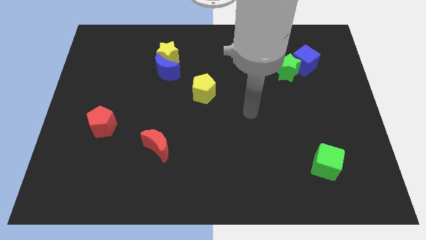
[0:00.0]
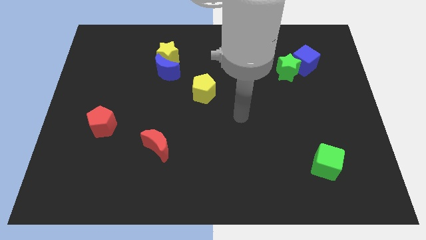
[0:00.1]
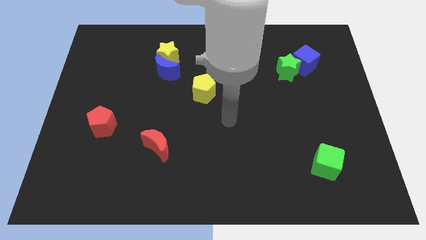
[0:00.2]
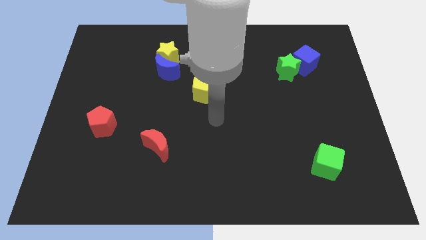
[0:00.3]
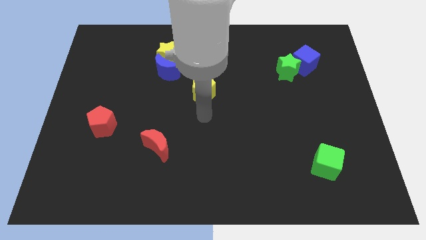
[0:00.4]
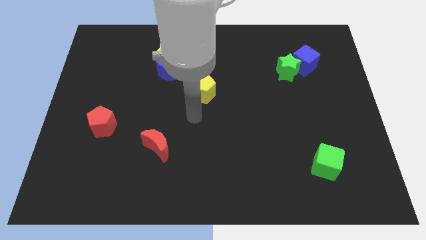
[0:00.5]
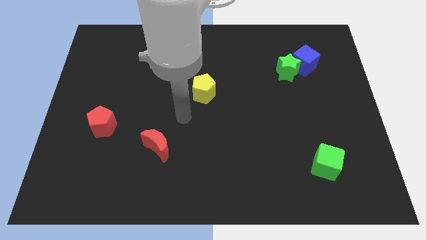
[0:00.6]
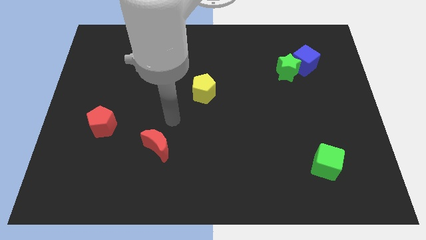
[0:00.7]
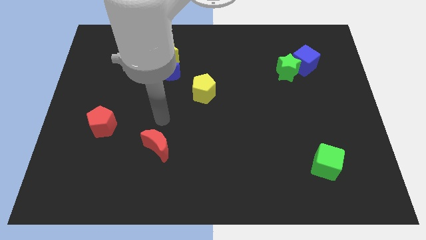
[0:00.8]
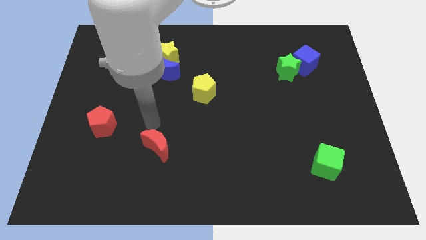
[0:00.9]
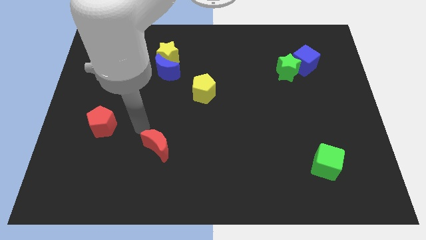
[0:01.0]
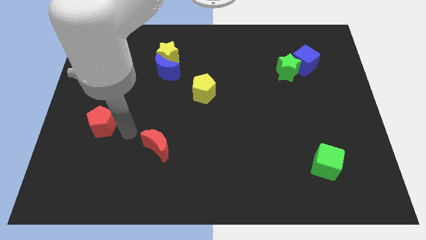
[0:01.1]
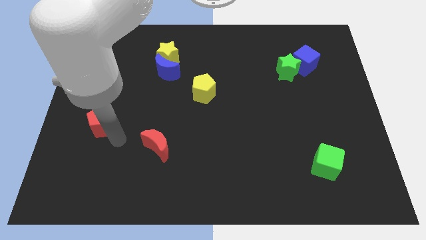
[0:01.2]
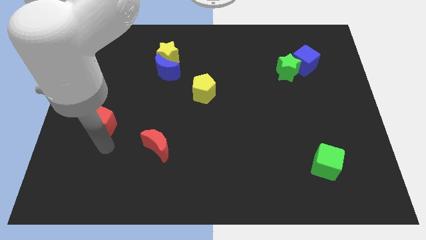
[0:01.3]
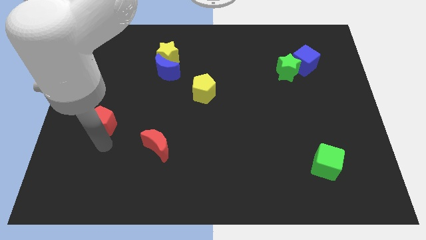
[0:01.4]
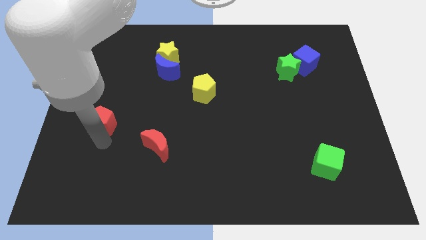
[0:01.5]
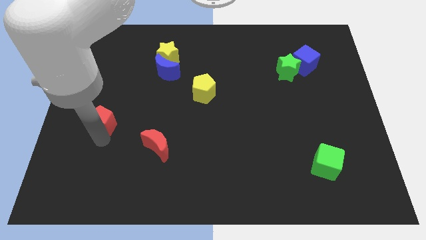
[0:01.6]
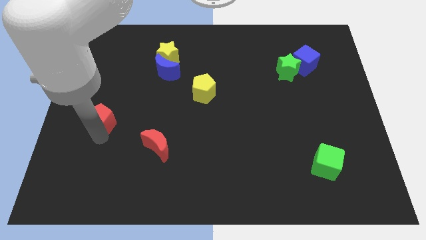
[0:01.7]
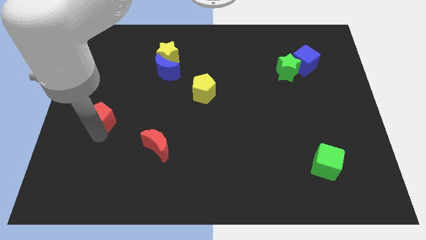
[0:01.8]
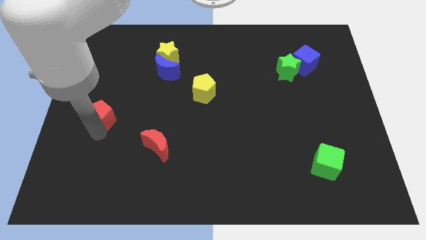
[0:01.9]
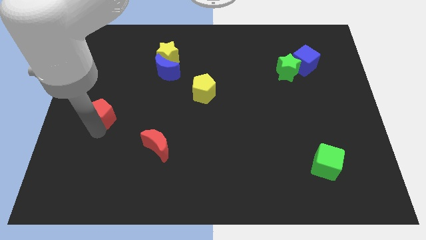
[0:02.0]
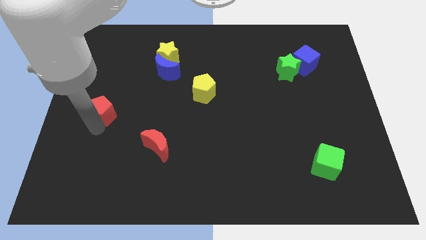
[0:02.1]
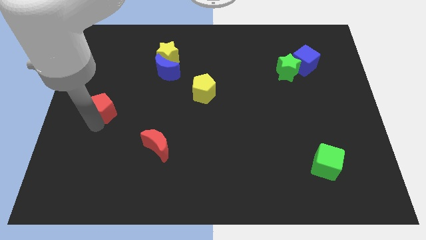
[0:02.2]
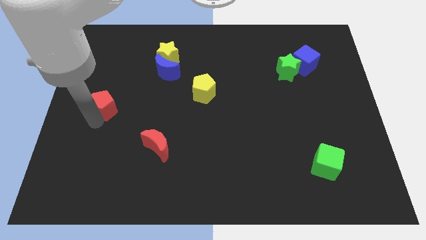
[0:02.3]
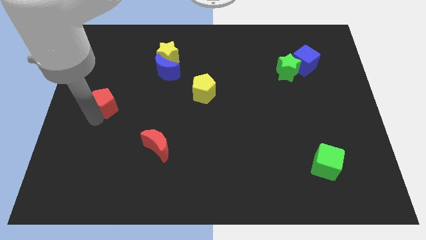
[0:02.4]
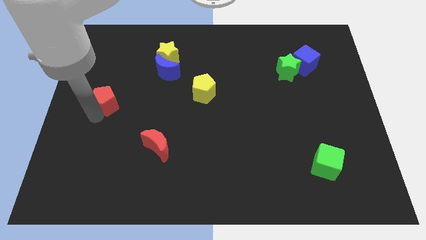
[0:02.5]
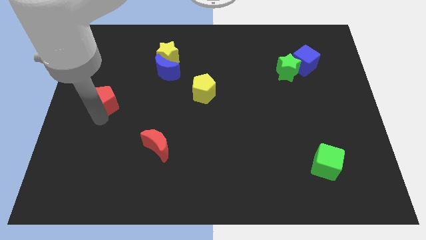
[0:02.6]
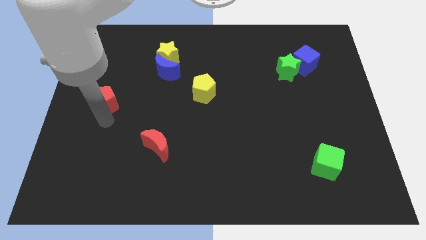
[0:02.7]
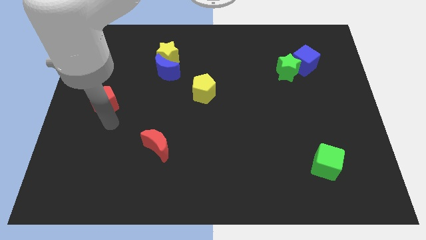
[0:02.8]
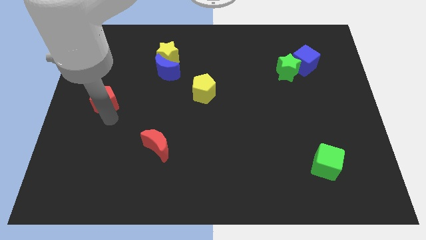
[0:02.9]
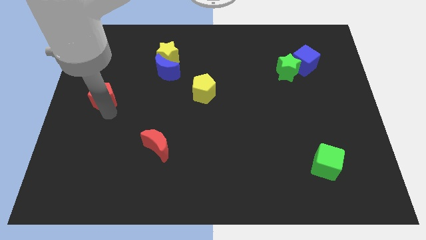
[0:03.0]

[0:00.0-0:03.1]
move the red pentagon up slightly

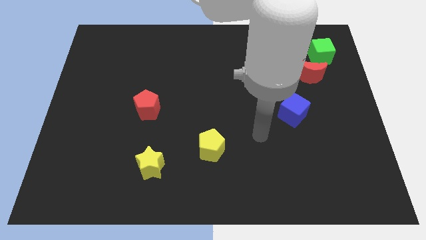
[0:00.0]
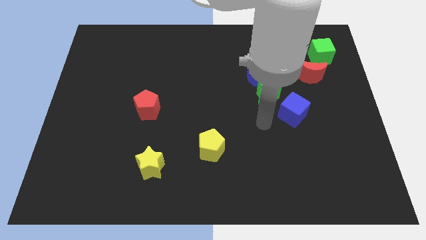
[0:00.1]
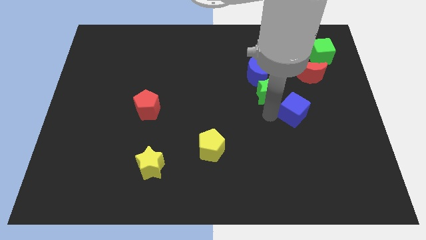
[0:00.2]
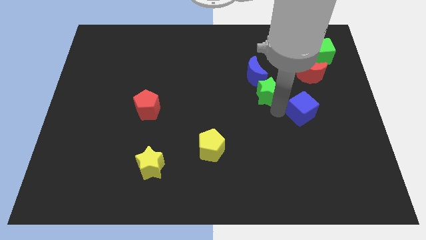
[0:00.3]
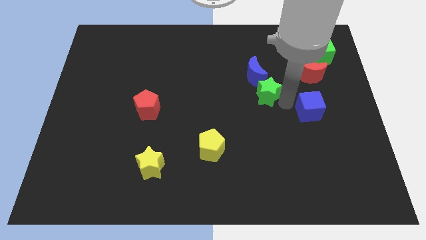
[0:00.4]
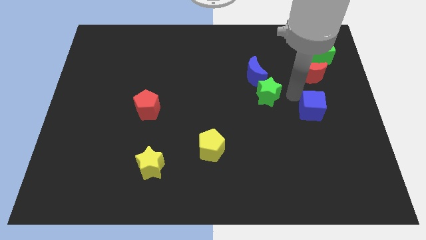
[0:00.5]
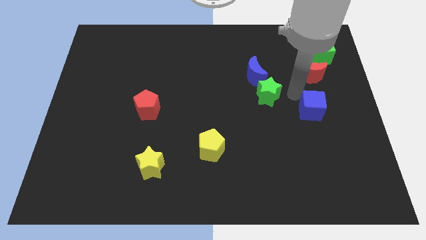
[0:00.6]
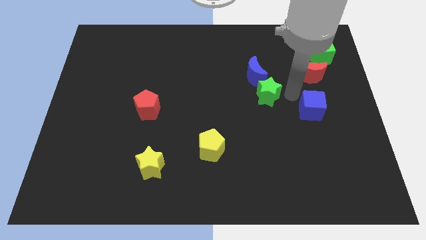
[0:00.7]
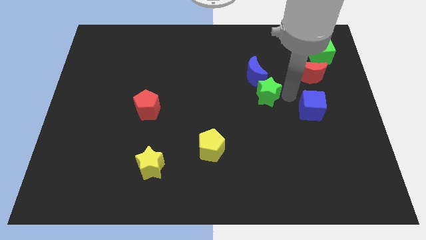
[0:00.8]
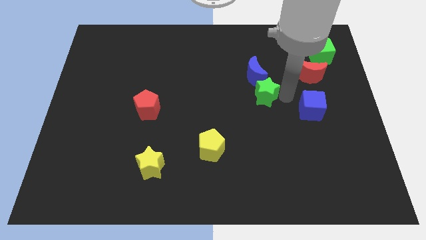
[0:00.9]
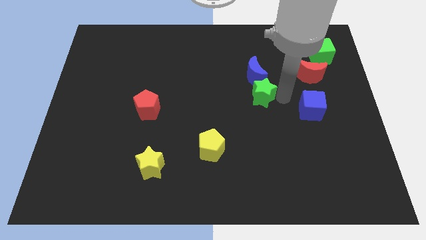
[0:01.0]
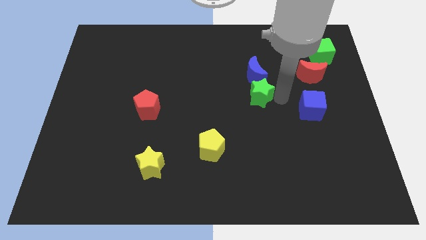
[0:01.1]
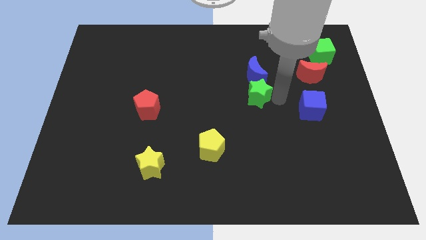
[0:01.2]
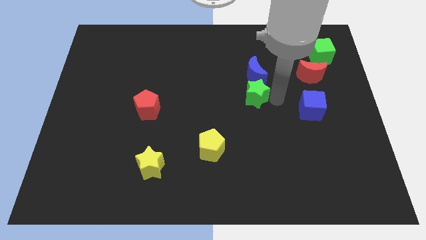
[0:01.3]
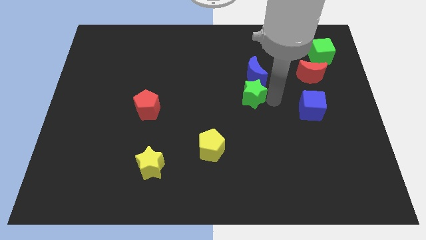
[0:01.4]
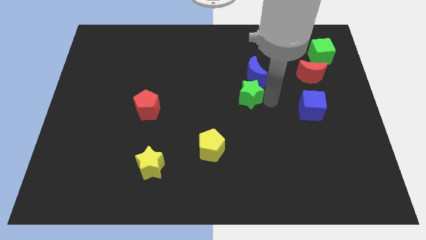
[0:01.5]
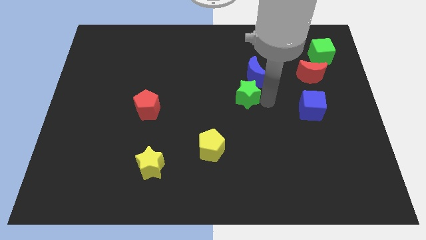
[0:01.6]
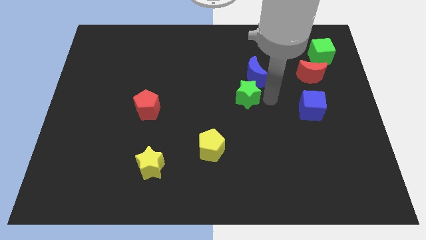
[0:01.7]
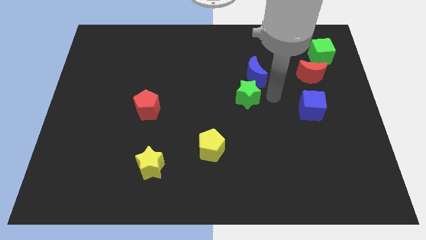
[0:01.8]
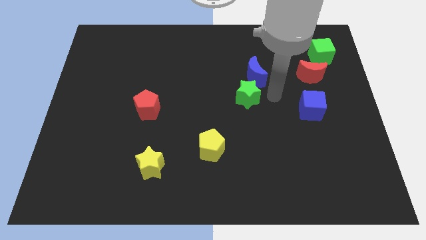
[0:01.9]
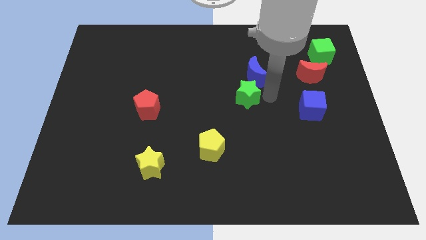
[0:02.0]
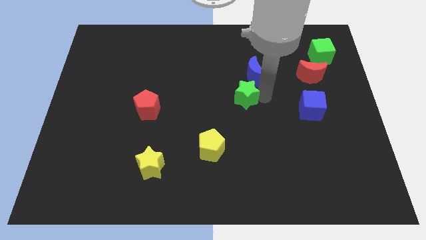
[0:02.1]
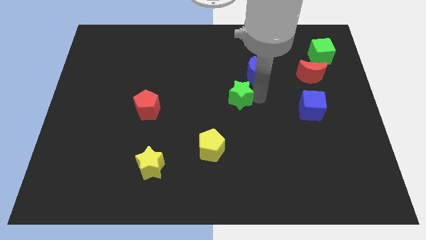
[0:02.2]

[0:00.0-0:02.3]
move the green star to the left somewhat

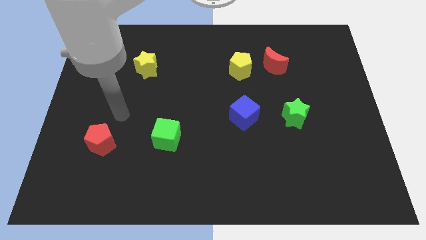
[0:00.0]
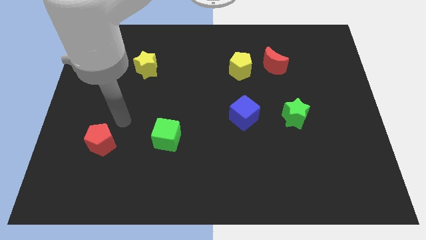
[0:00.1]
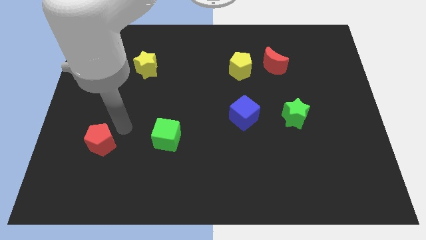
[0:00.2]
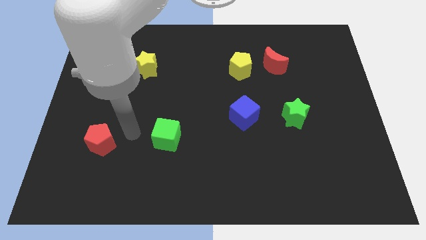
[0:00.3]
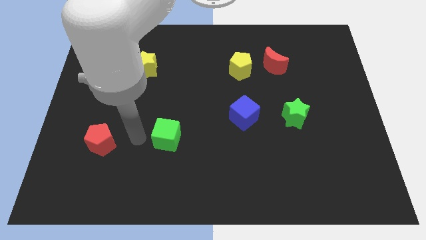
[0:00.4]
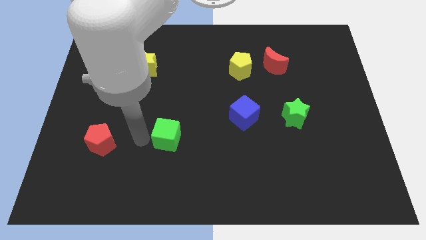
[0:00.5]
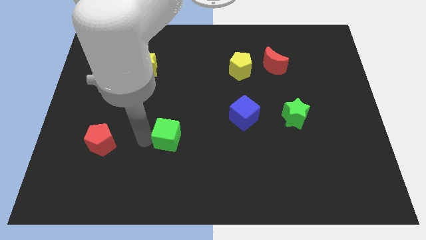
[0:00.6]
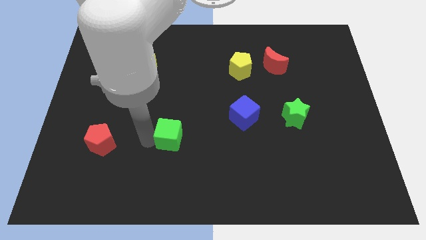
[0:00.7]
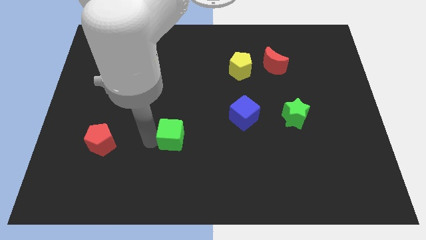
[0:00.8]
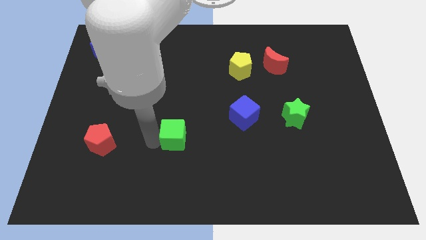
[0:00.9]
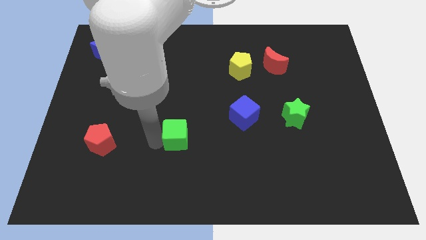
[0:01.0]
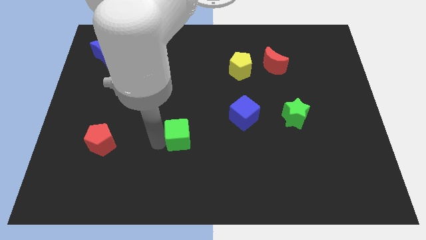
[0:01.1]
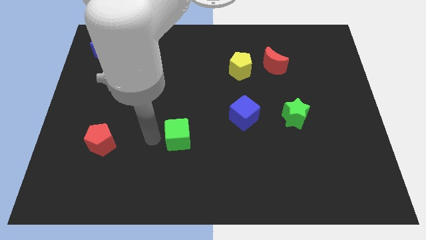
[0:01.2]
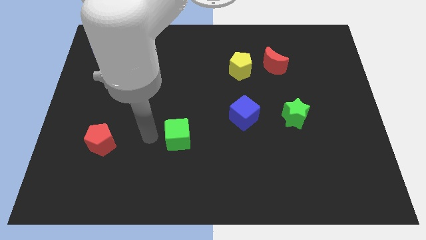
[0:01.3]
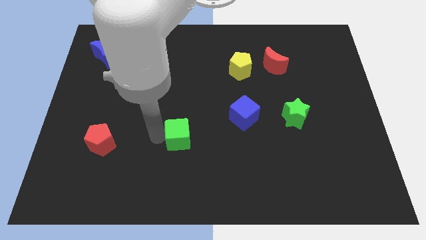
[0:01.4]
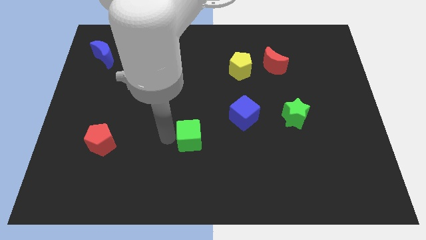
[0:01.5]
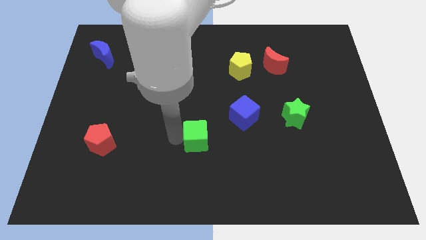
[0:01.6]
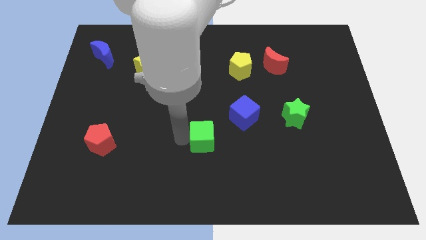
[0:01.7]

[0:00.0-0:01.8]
slightly move the green cube right

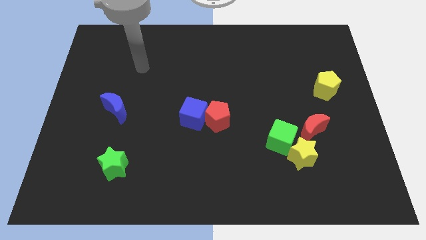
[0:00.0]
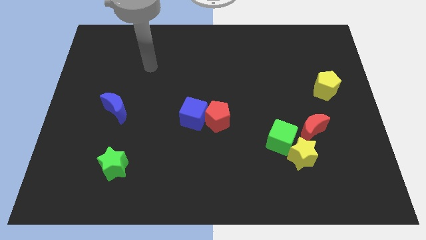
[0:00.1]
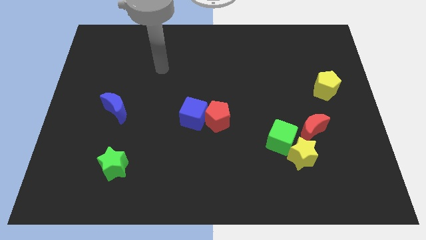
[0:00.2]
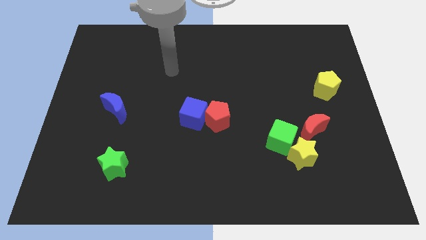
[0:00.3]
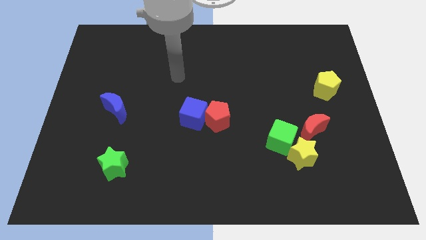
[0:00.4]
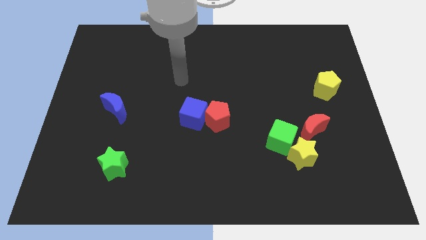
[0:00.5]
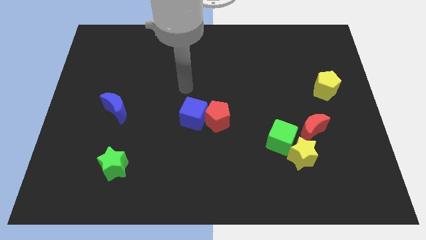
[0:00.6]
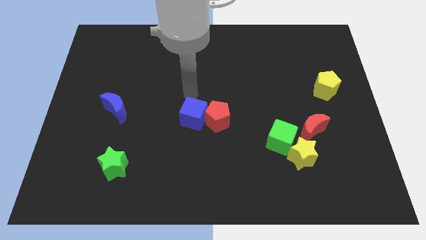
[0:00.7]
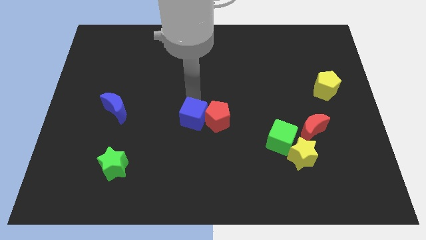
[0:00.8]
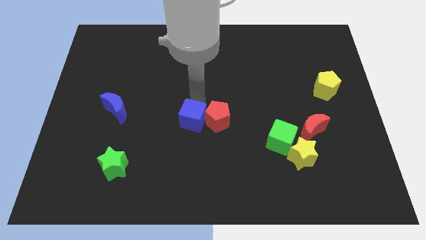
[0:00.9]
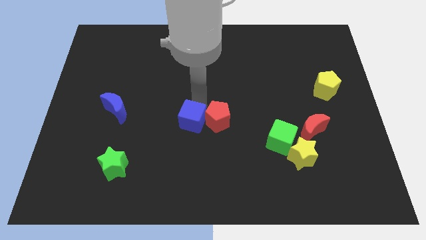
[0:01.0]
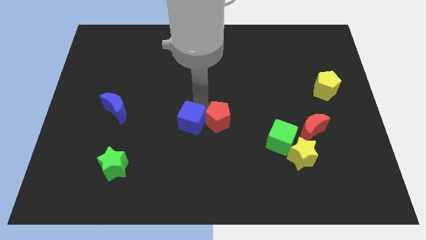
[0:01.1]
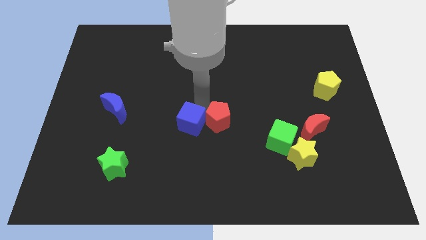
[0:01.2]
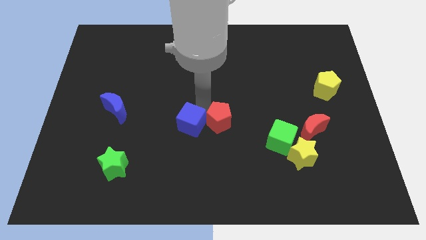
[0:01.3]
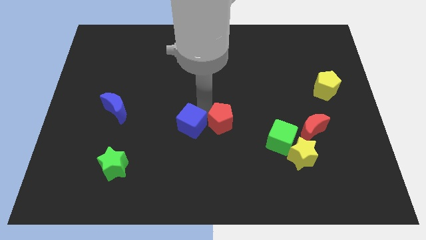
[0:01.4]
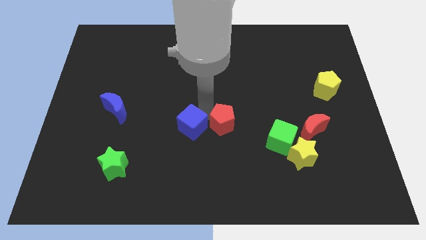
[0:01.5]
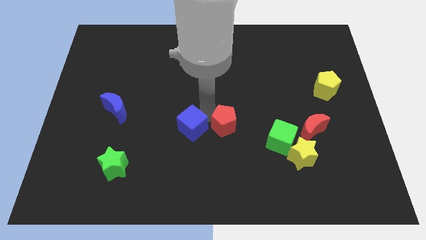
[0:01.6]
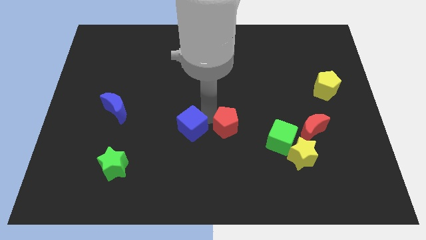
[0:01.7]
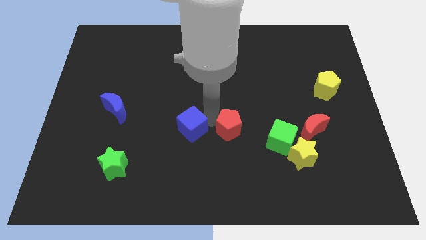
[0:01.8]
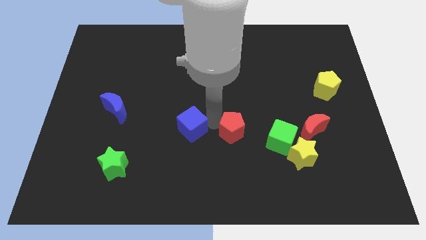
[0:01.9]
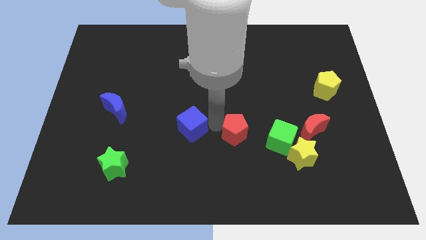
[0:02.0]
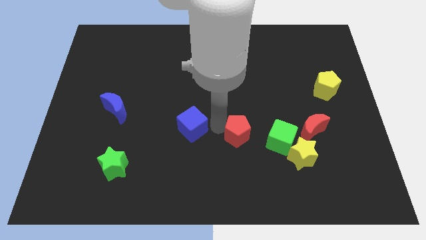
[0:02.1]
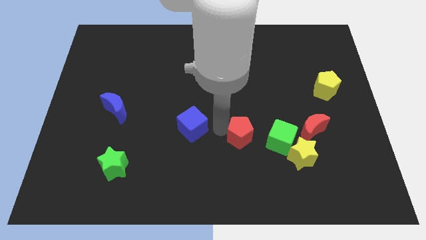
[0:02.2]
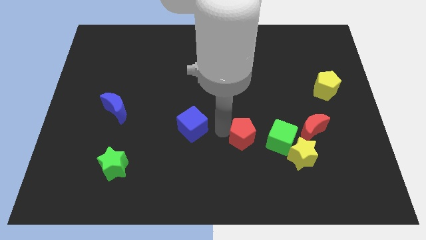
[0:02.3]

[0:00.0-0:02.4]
push the red pentagon downwards and to the right diagonally a bit
